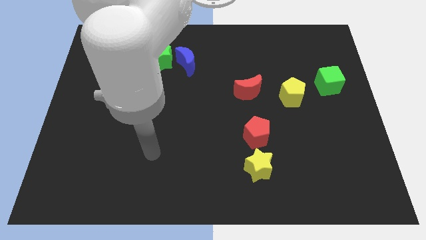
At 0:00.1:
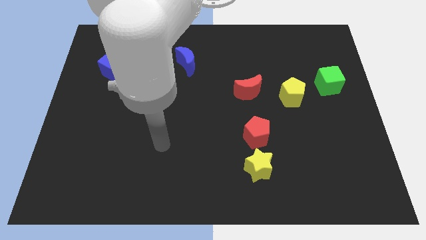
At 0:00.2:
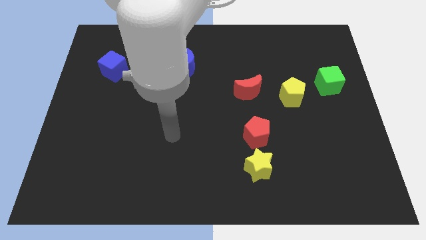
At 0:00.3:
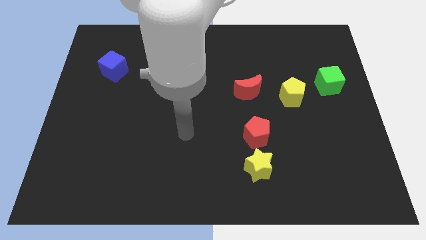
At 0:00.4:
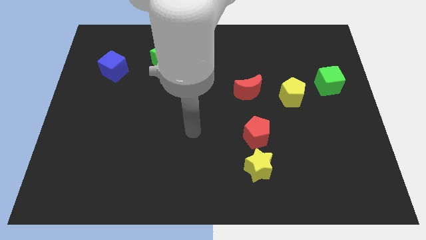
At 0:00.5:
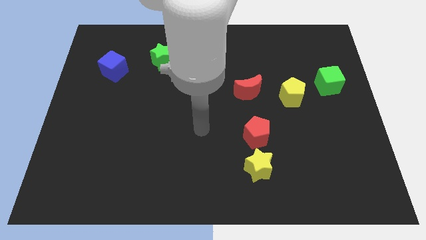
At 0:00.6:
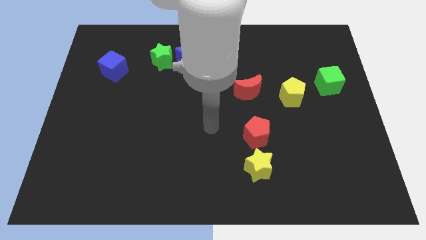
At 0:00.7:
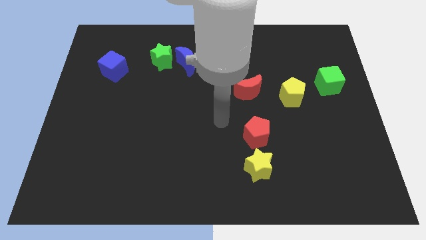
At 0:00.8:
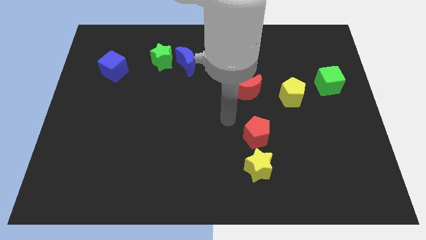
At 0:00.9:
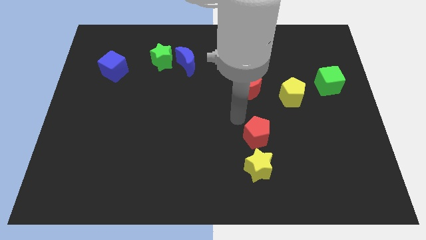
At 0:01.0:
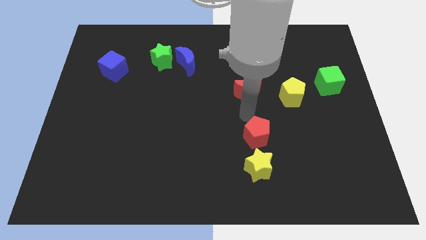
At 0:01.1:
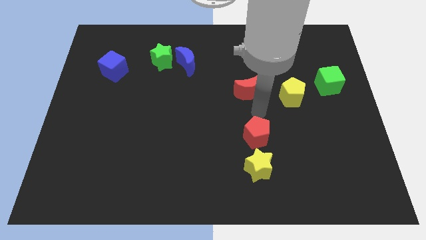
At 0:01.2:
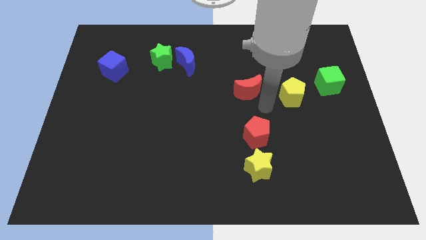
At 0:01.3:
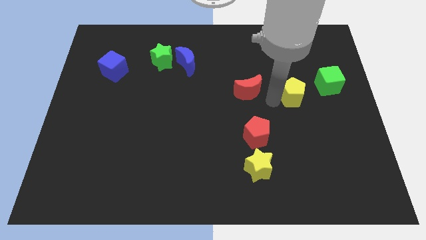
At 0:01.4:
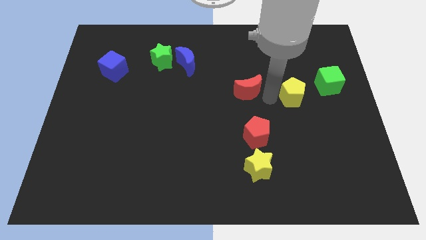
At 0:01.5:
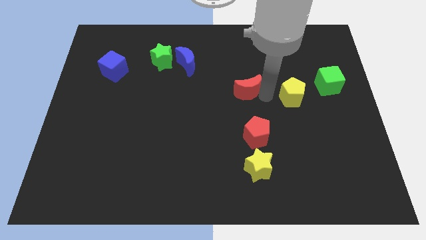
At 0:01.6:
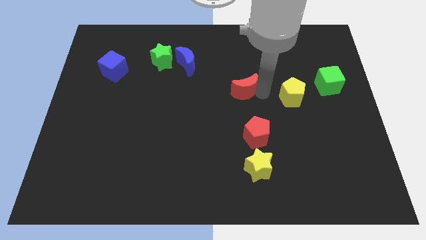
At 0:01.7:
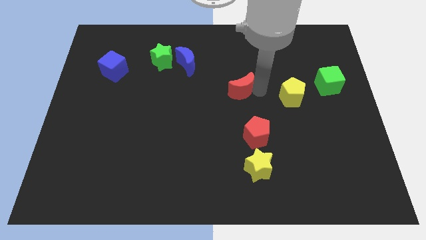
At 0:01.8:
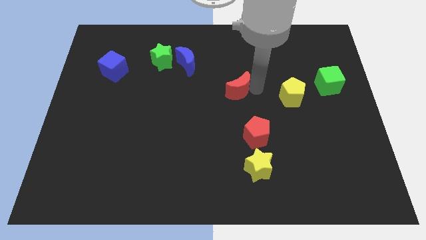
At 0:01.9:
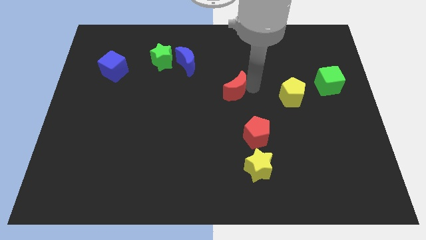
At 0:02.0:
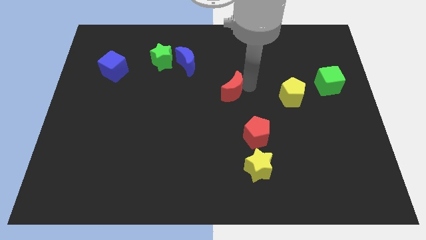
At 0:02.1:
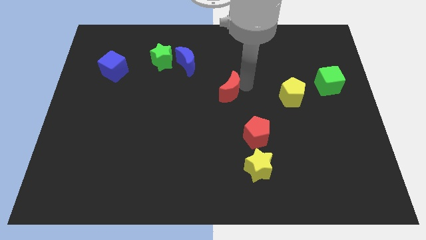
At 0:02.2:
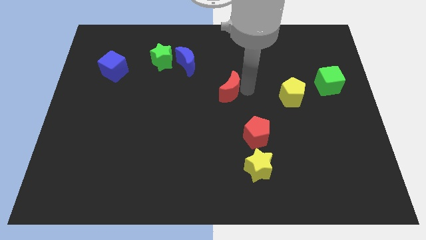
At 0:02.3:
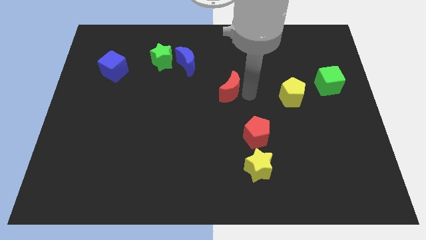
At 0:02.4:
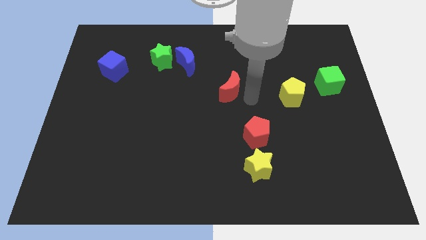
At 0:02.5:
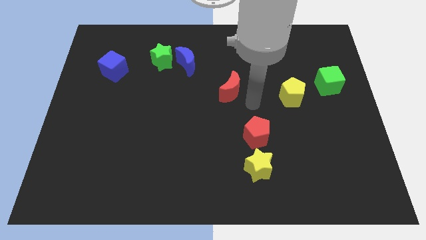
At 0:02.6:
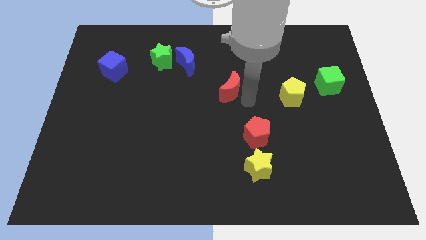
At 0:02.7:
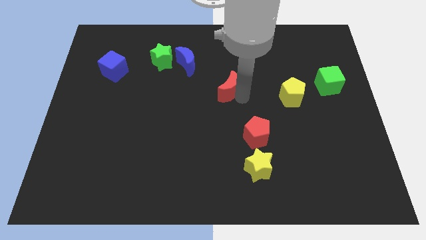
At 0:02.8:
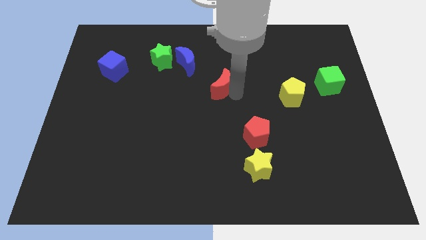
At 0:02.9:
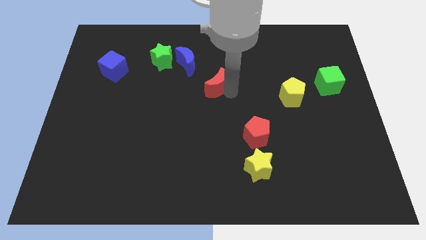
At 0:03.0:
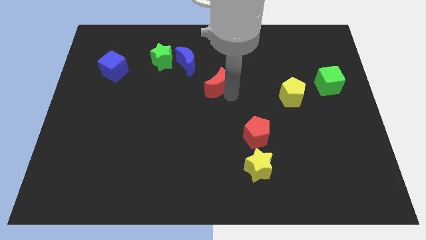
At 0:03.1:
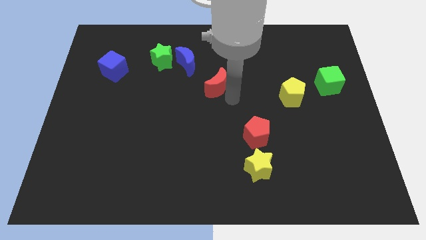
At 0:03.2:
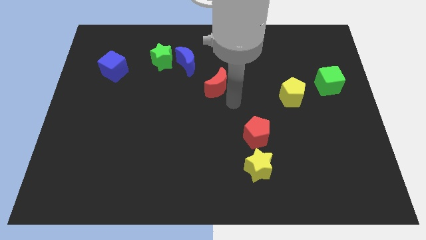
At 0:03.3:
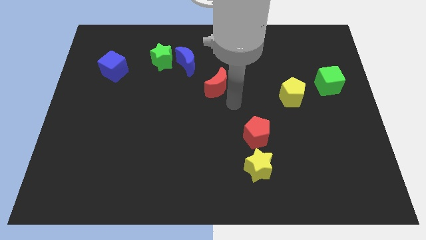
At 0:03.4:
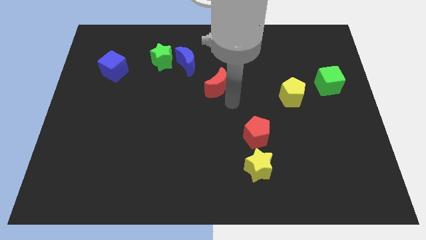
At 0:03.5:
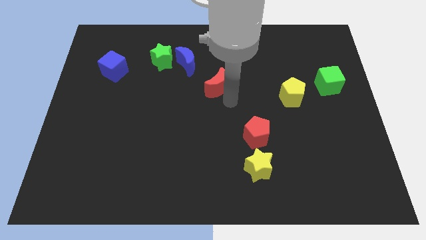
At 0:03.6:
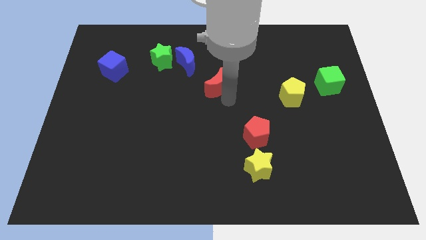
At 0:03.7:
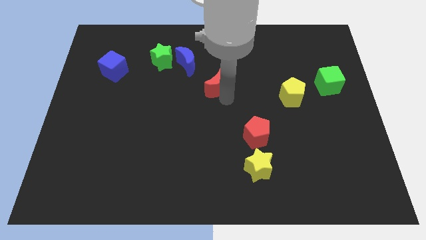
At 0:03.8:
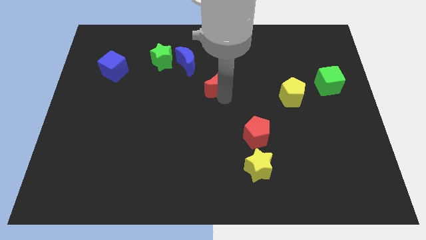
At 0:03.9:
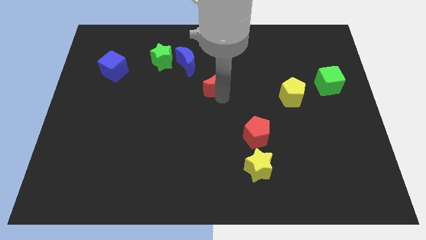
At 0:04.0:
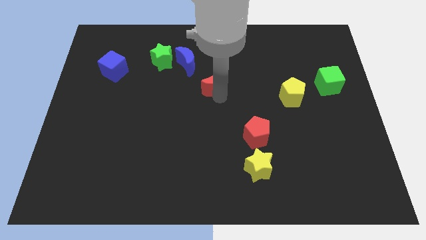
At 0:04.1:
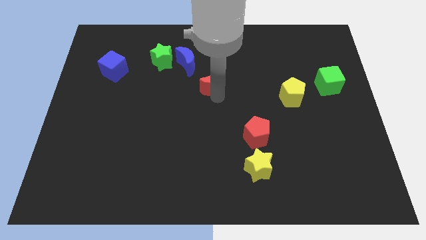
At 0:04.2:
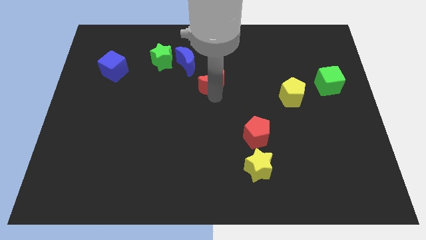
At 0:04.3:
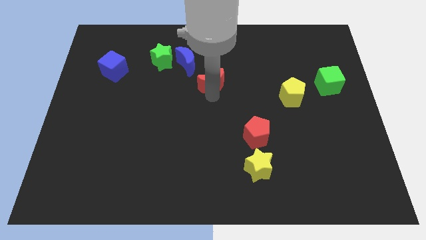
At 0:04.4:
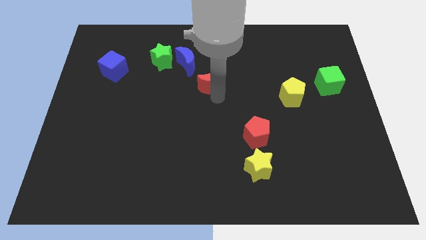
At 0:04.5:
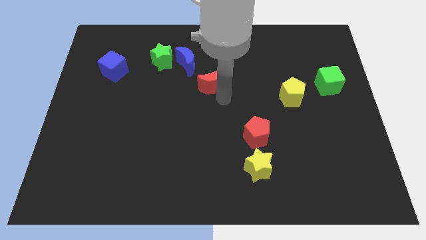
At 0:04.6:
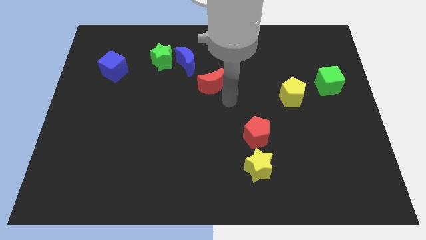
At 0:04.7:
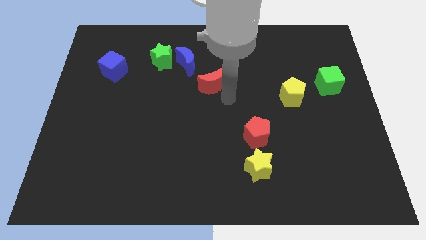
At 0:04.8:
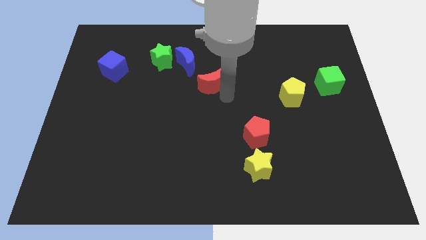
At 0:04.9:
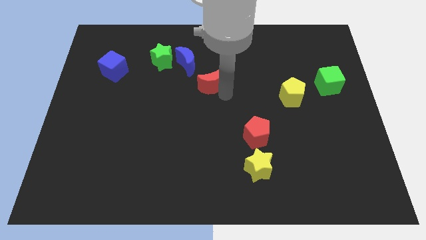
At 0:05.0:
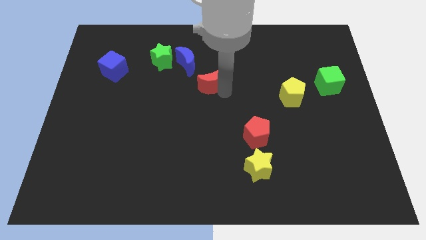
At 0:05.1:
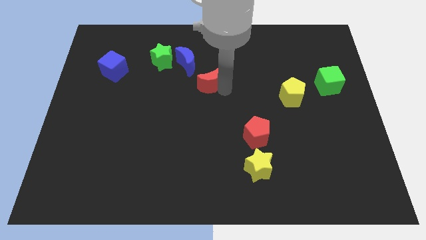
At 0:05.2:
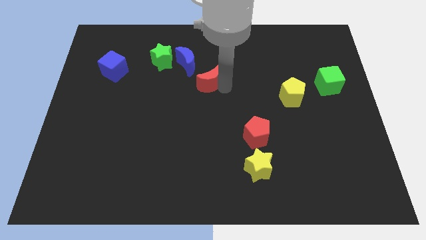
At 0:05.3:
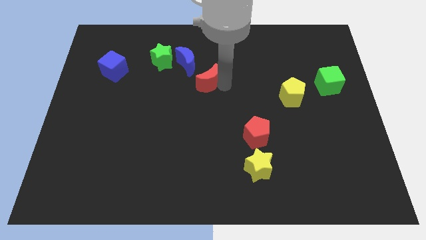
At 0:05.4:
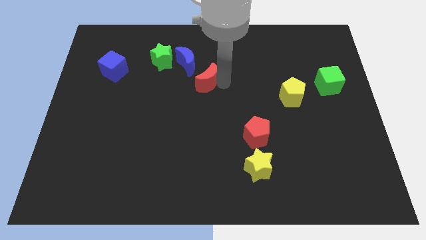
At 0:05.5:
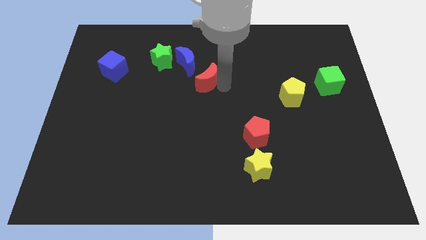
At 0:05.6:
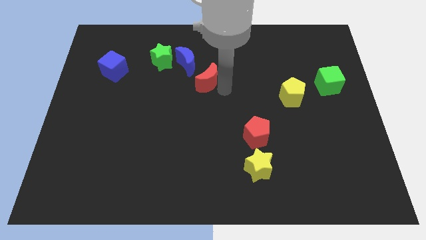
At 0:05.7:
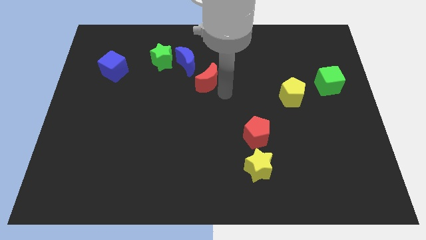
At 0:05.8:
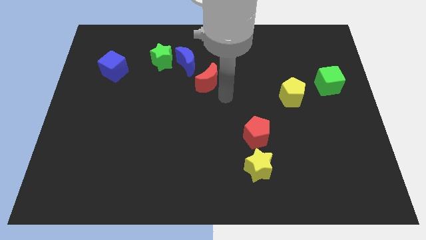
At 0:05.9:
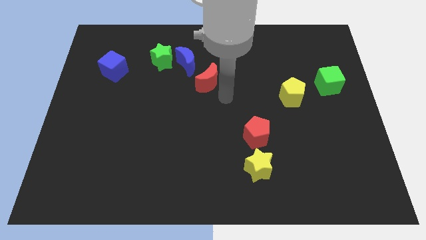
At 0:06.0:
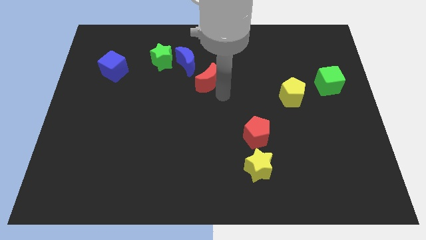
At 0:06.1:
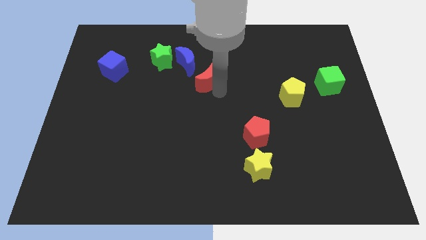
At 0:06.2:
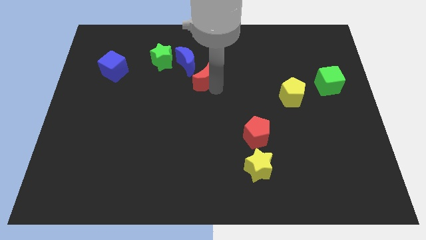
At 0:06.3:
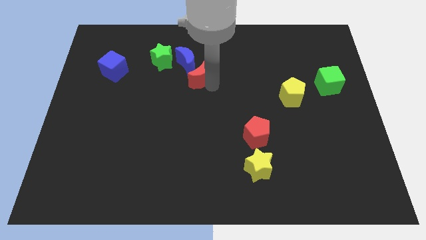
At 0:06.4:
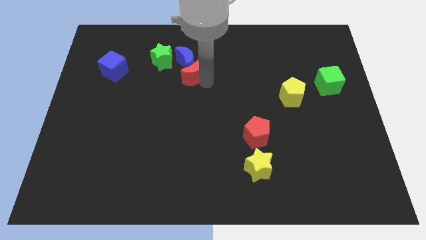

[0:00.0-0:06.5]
slide the red moon towards the blue moon

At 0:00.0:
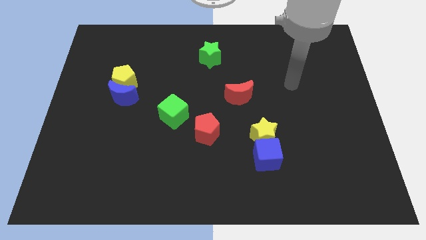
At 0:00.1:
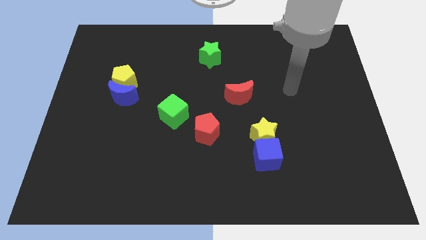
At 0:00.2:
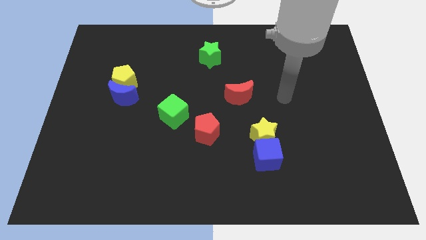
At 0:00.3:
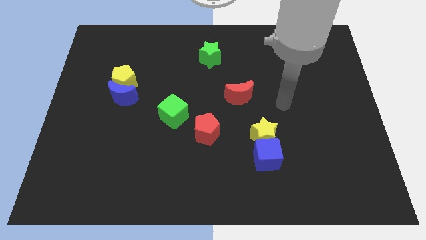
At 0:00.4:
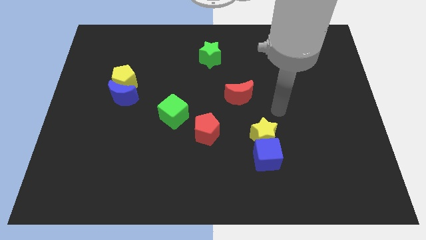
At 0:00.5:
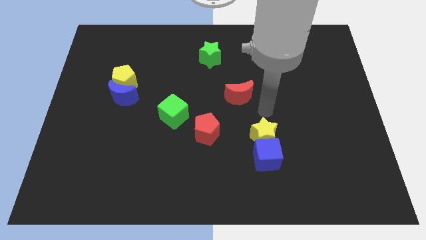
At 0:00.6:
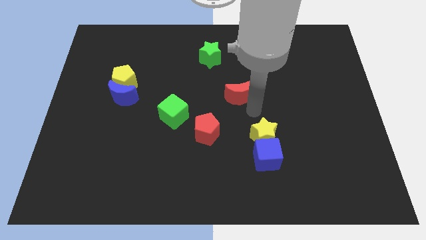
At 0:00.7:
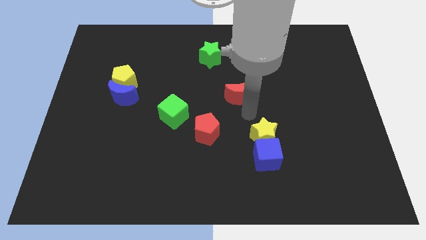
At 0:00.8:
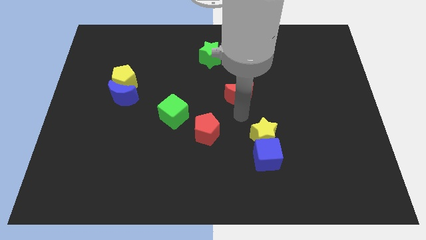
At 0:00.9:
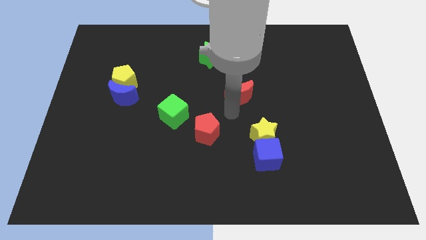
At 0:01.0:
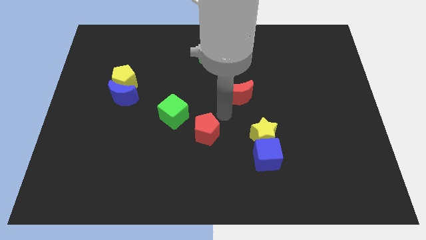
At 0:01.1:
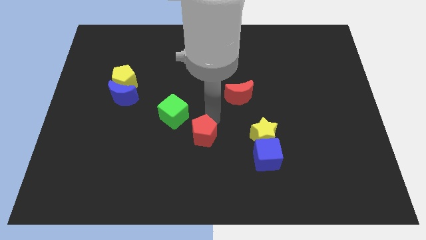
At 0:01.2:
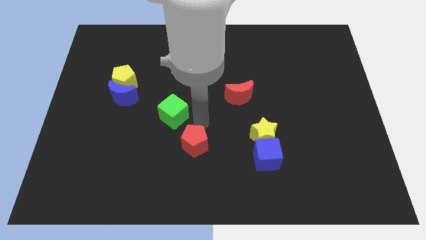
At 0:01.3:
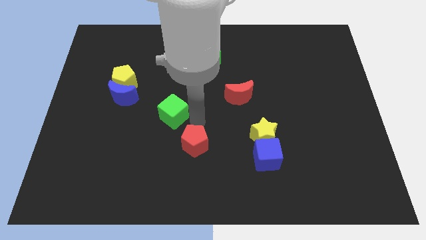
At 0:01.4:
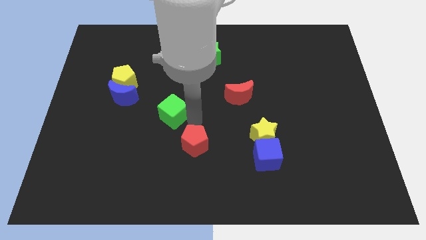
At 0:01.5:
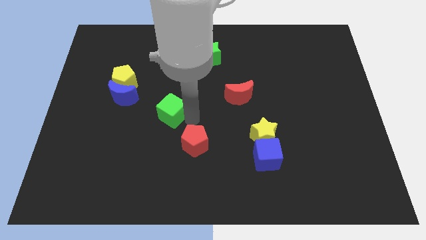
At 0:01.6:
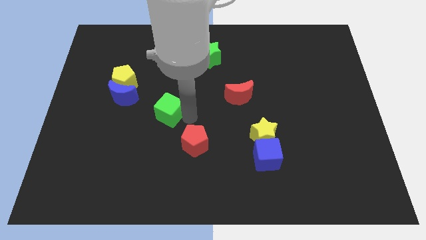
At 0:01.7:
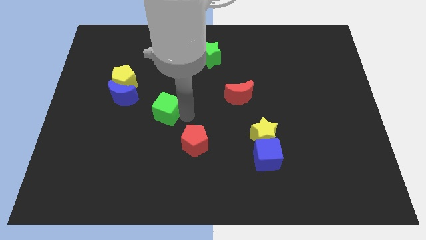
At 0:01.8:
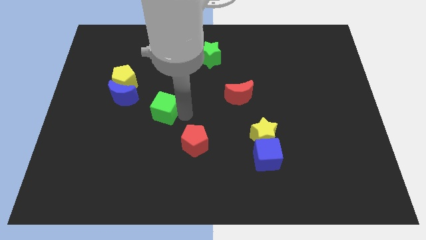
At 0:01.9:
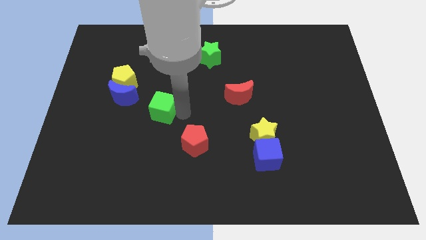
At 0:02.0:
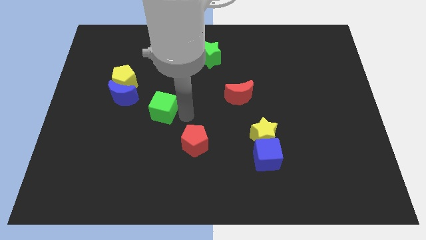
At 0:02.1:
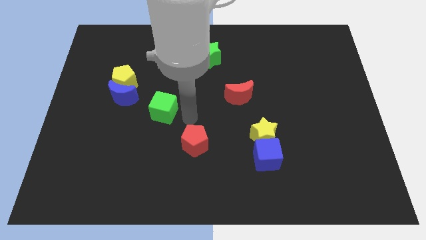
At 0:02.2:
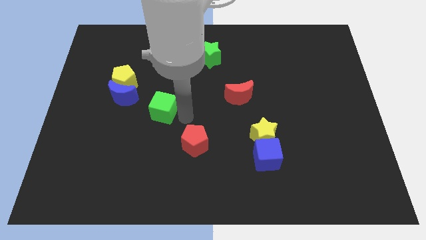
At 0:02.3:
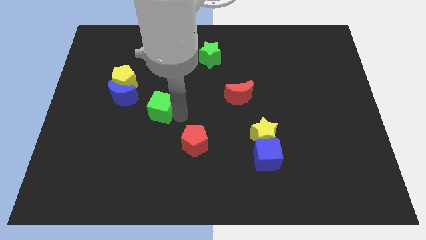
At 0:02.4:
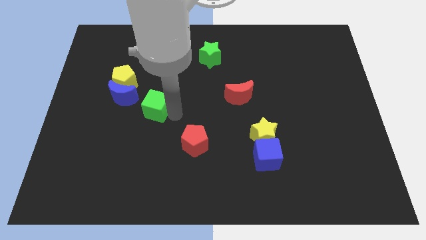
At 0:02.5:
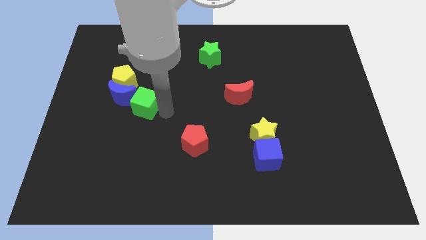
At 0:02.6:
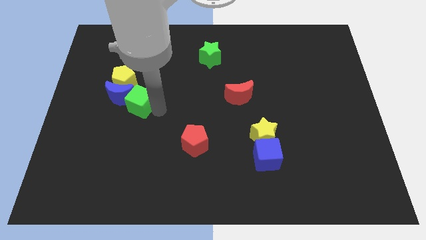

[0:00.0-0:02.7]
push the green cube towards the blue moon
